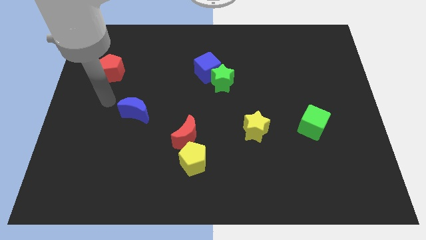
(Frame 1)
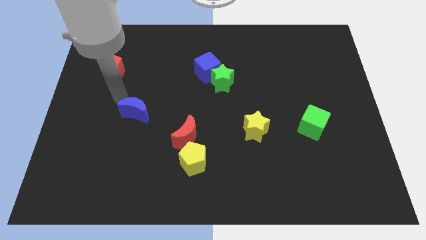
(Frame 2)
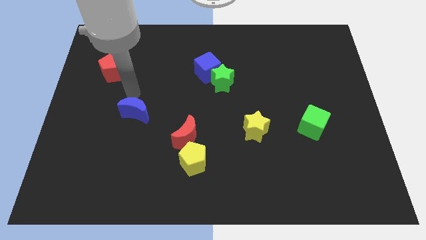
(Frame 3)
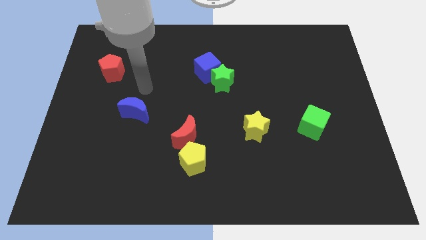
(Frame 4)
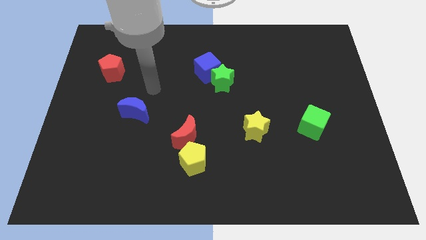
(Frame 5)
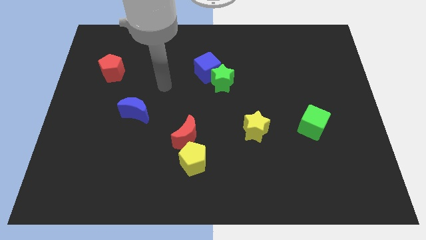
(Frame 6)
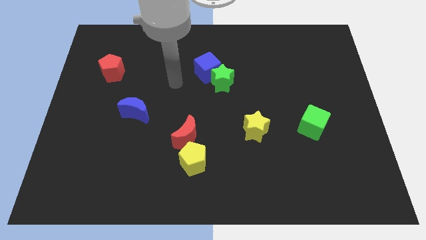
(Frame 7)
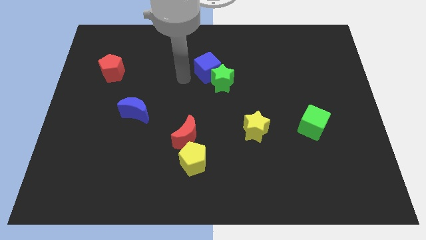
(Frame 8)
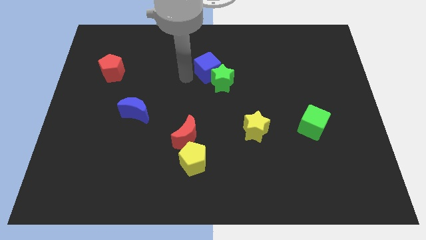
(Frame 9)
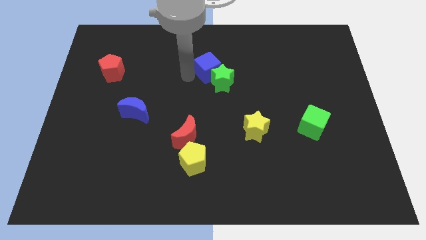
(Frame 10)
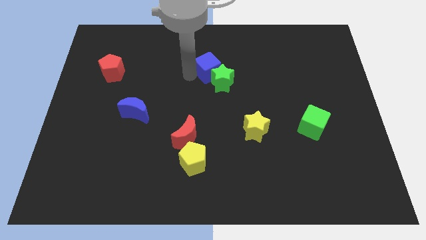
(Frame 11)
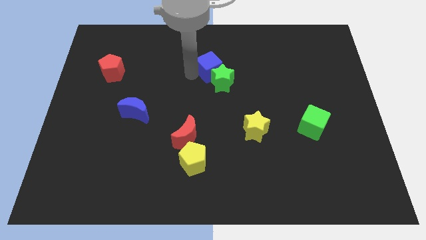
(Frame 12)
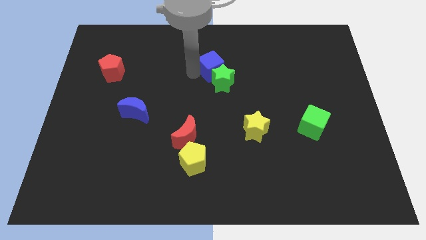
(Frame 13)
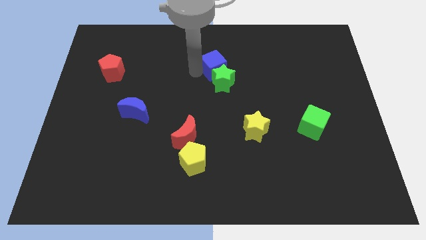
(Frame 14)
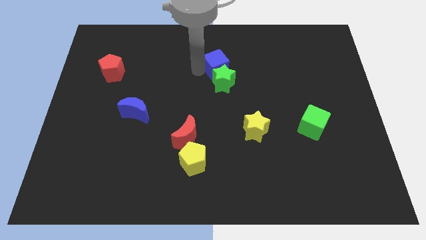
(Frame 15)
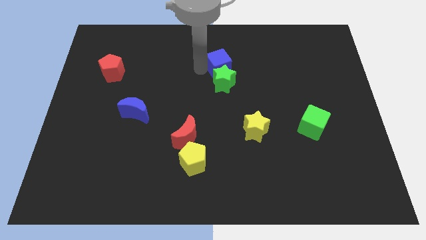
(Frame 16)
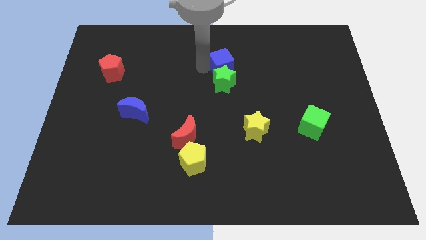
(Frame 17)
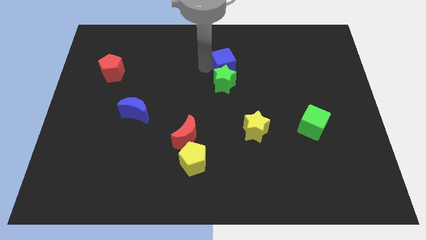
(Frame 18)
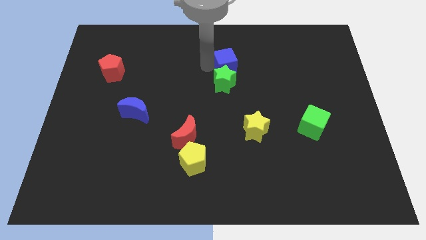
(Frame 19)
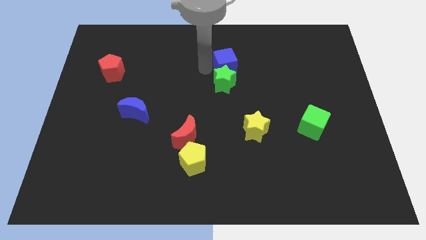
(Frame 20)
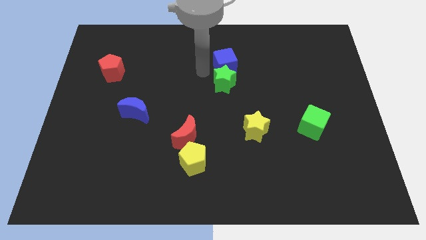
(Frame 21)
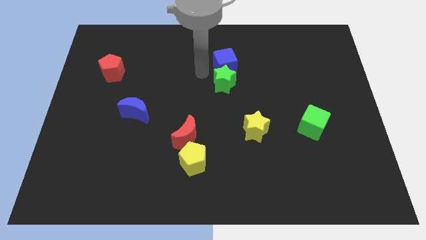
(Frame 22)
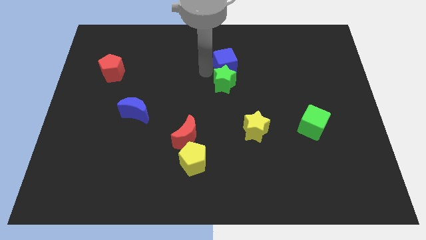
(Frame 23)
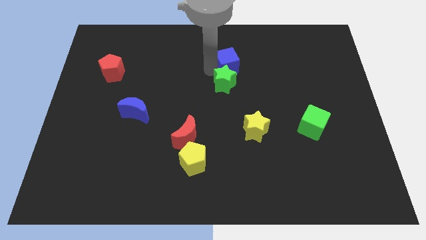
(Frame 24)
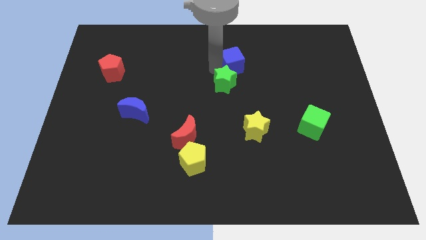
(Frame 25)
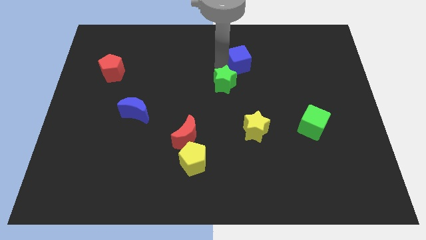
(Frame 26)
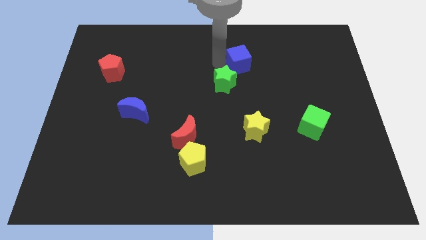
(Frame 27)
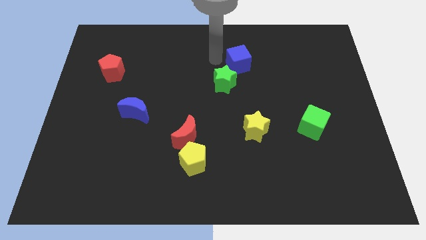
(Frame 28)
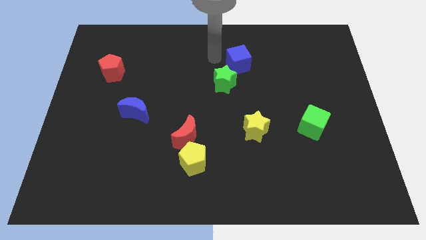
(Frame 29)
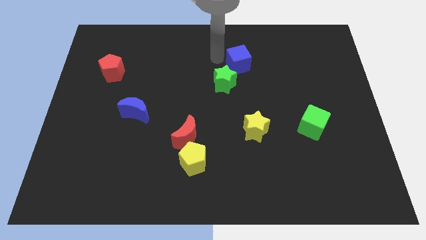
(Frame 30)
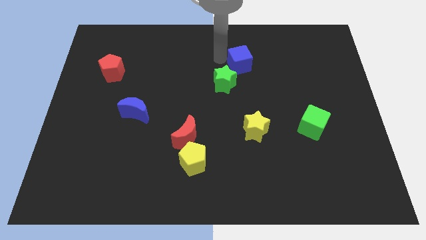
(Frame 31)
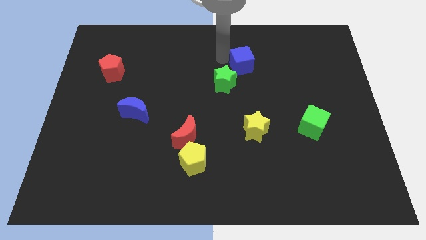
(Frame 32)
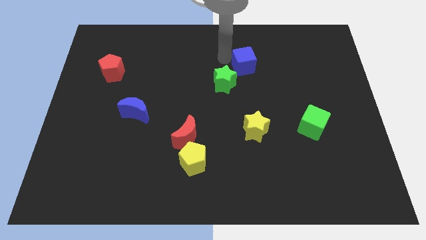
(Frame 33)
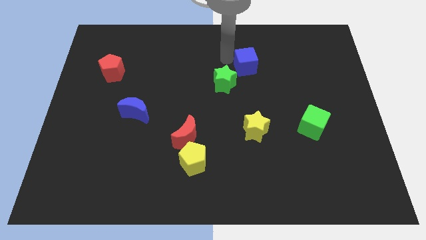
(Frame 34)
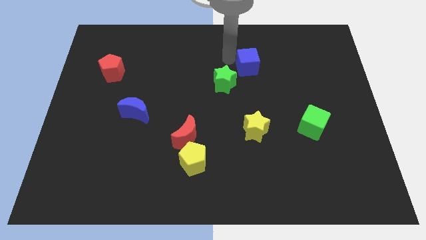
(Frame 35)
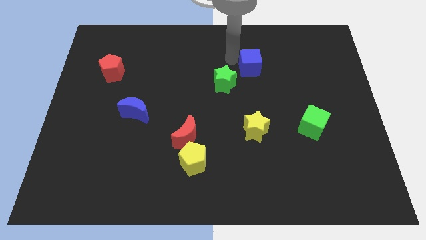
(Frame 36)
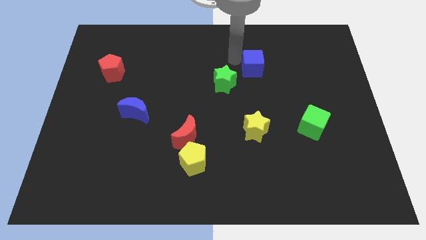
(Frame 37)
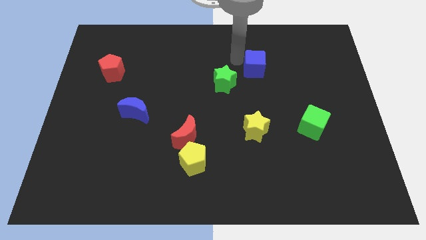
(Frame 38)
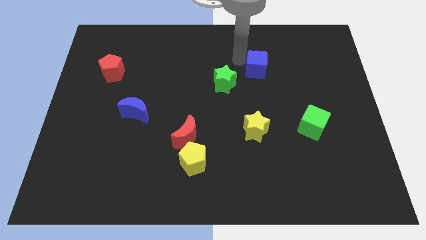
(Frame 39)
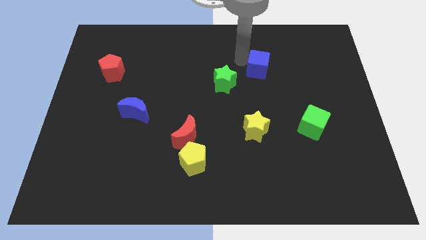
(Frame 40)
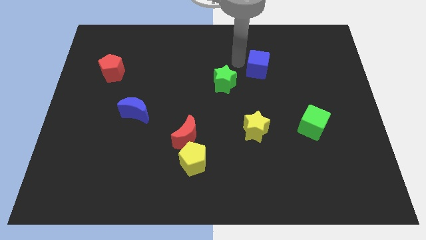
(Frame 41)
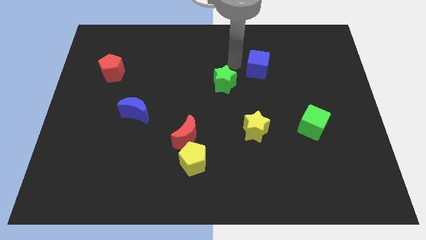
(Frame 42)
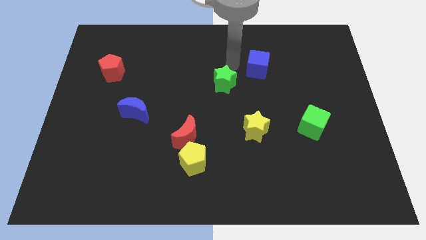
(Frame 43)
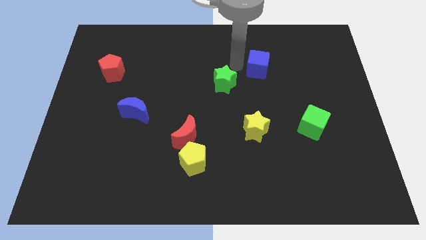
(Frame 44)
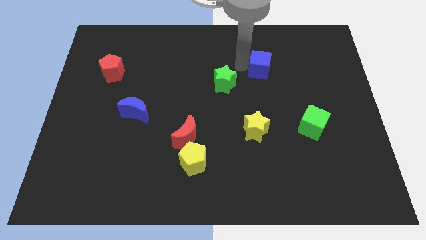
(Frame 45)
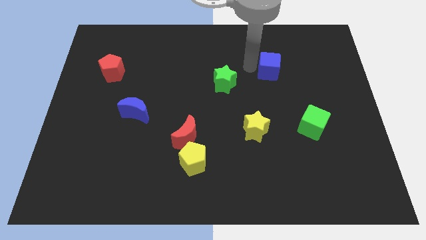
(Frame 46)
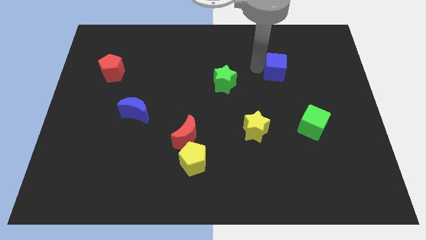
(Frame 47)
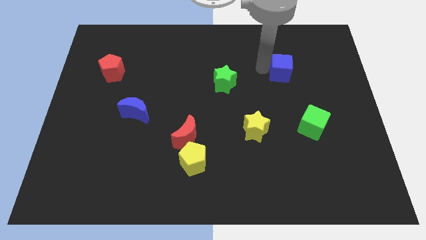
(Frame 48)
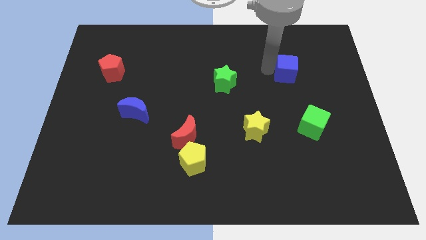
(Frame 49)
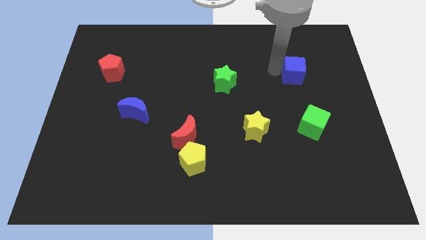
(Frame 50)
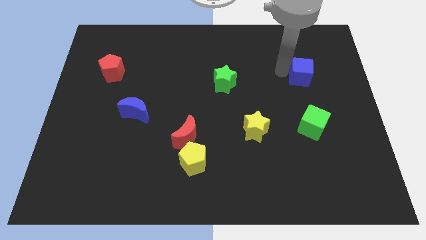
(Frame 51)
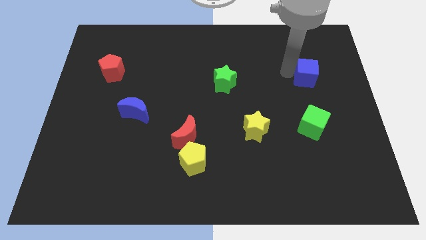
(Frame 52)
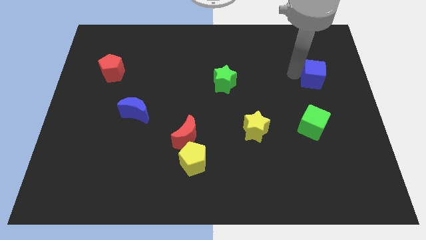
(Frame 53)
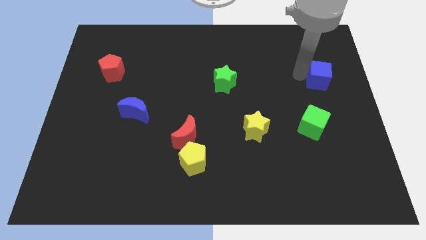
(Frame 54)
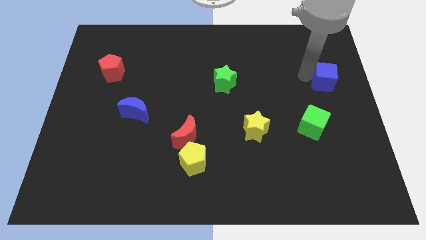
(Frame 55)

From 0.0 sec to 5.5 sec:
slide the blue cube to the right side of the board

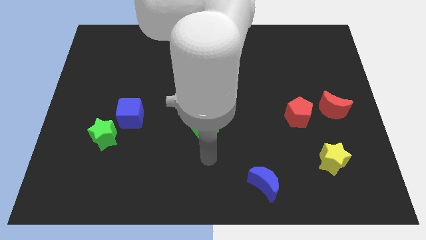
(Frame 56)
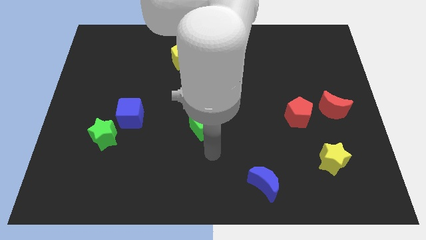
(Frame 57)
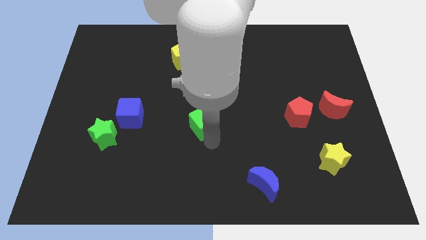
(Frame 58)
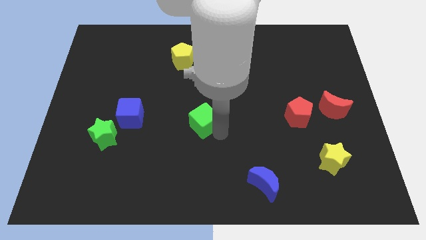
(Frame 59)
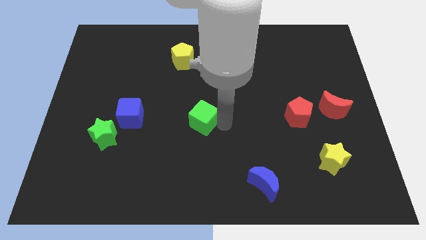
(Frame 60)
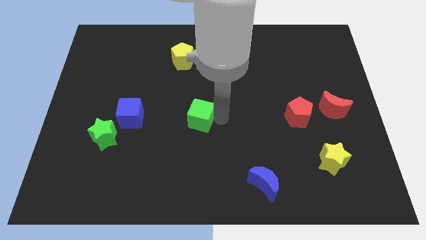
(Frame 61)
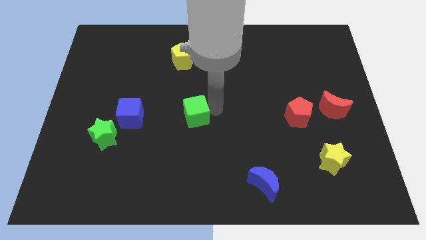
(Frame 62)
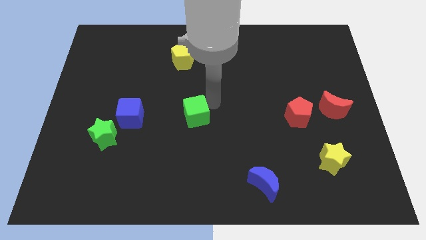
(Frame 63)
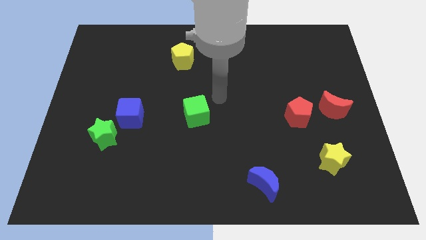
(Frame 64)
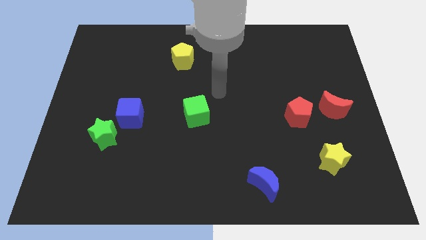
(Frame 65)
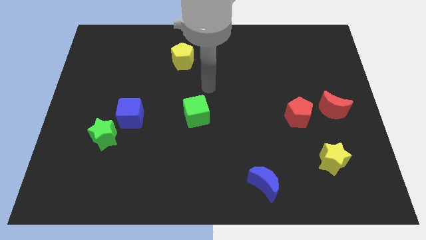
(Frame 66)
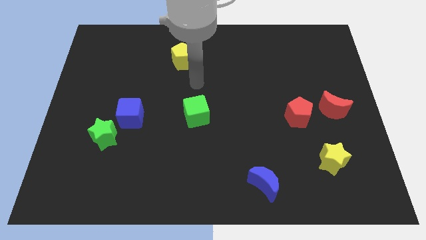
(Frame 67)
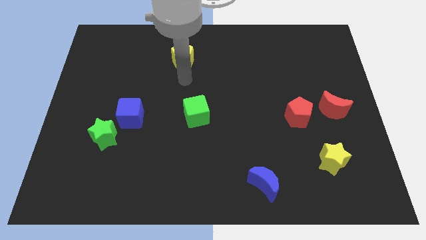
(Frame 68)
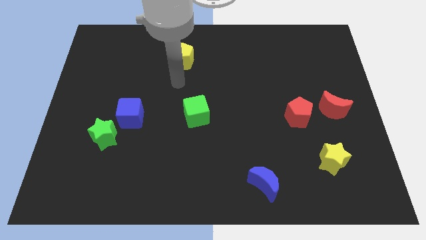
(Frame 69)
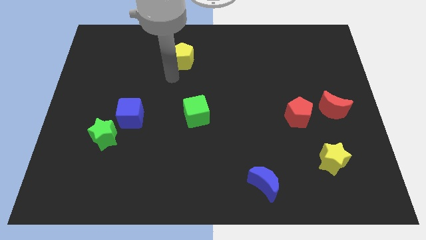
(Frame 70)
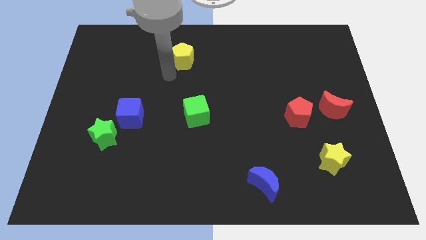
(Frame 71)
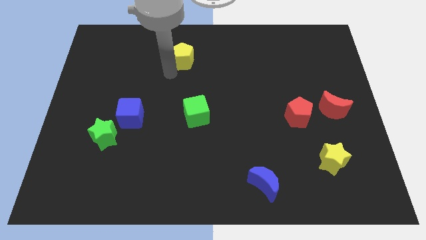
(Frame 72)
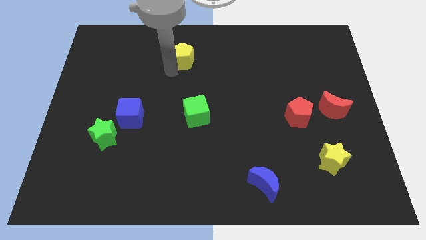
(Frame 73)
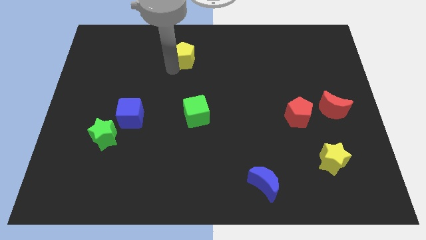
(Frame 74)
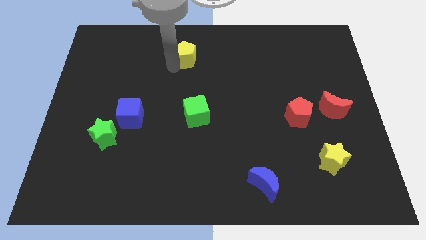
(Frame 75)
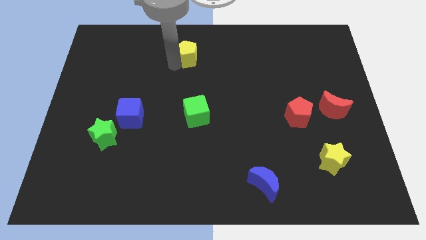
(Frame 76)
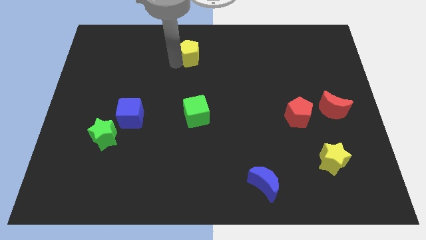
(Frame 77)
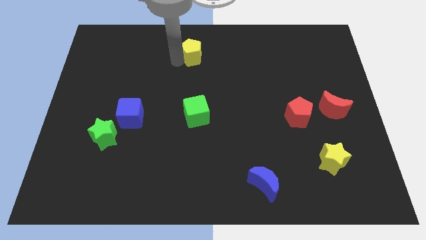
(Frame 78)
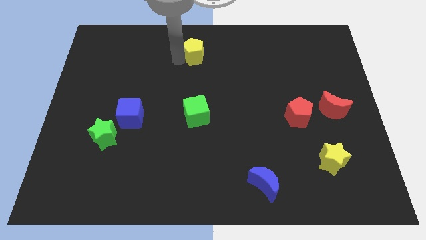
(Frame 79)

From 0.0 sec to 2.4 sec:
slide the yellow pentagon to the towards your base
